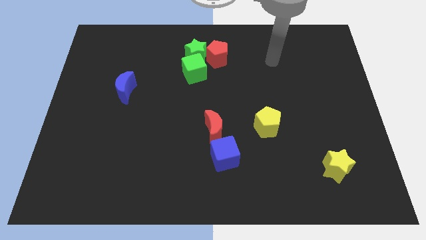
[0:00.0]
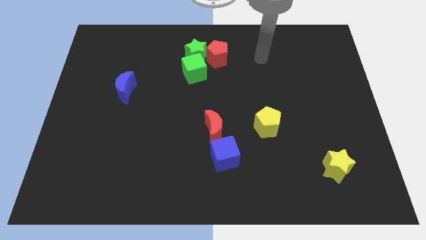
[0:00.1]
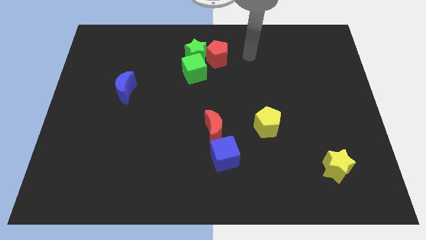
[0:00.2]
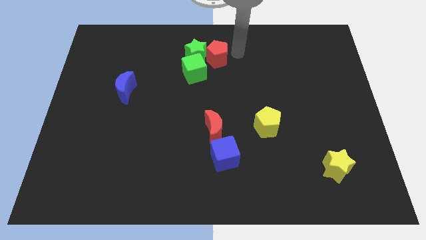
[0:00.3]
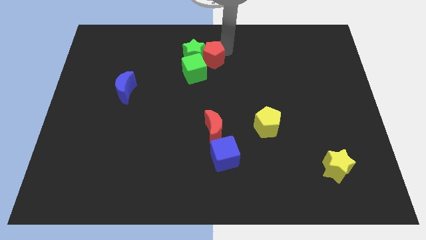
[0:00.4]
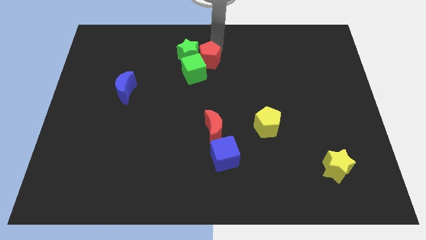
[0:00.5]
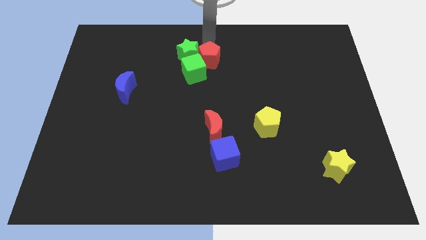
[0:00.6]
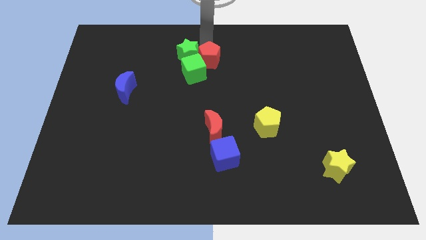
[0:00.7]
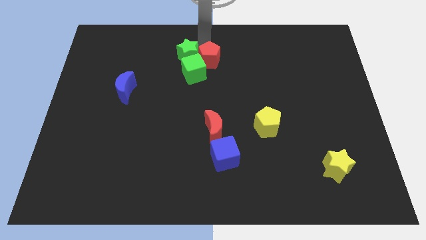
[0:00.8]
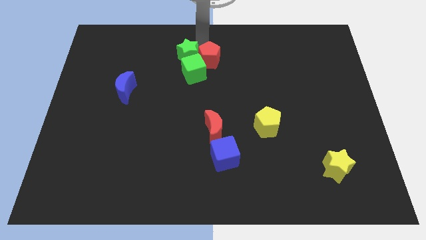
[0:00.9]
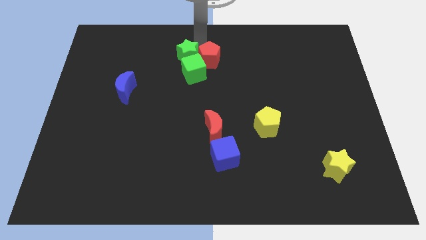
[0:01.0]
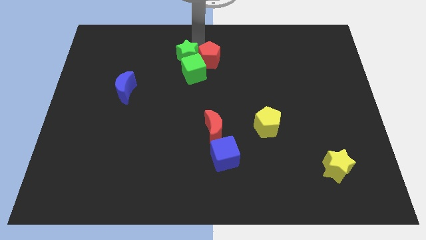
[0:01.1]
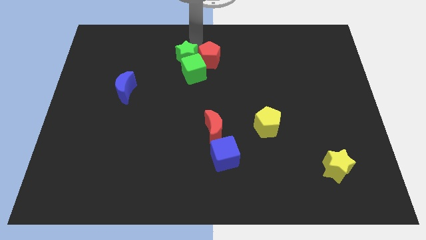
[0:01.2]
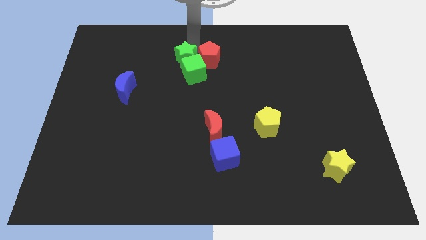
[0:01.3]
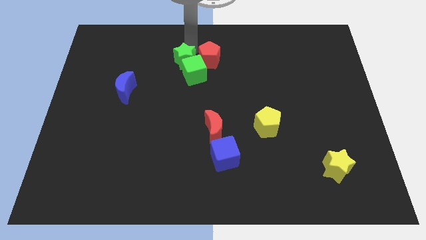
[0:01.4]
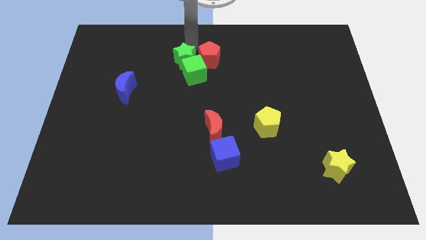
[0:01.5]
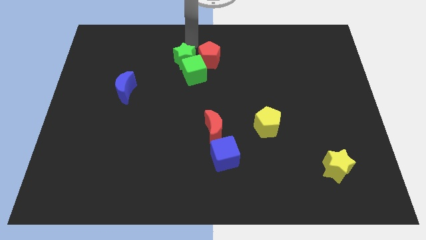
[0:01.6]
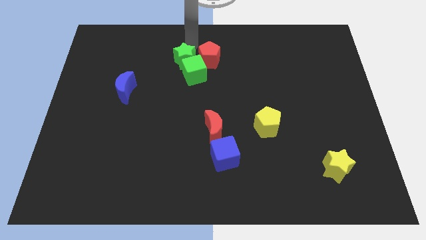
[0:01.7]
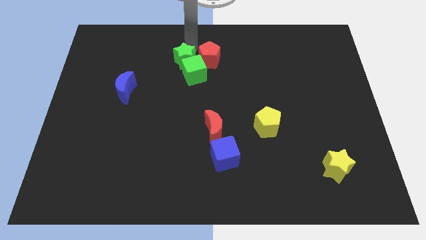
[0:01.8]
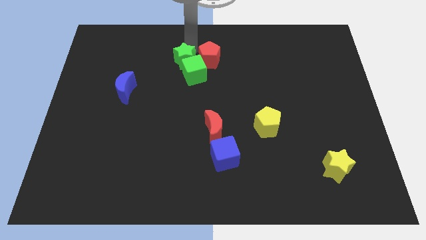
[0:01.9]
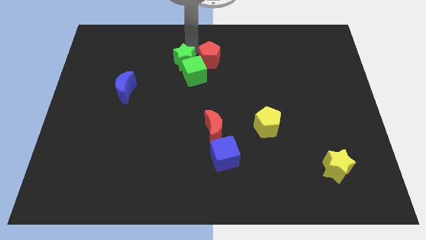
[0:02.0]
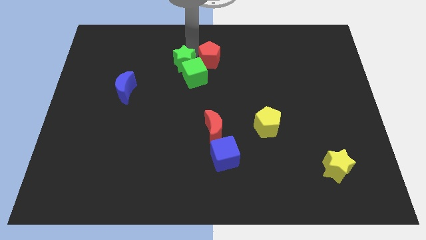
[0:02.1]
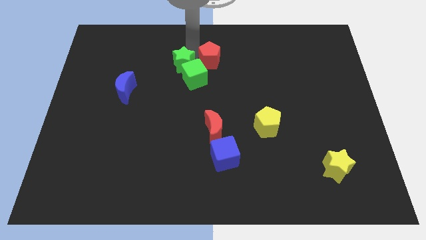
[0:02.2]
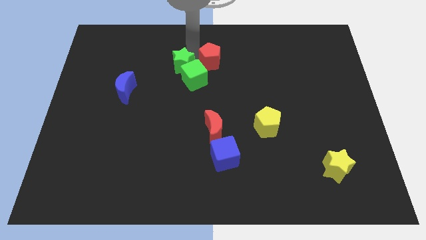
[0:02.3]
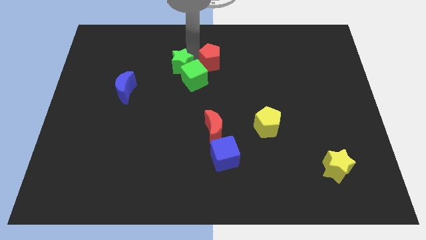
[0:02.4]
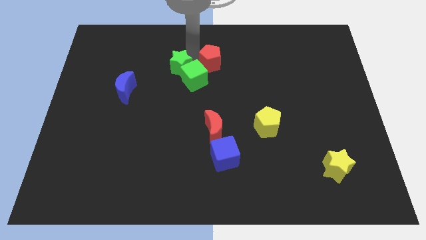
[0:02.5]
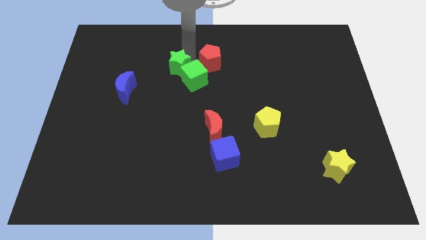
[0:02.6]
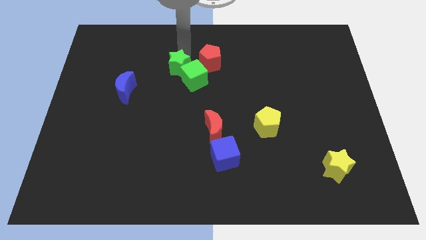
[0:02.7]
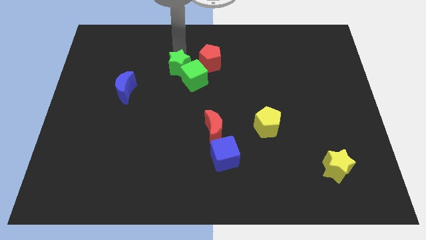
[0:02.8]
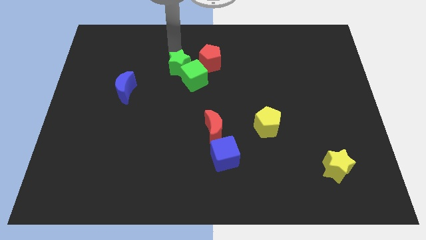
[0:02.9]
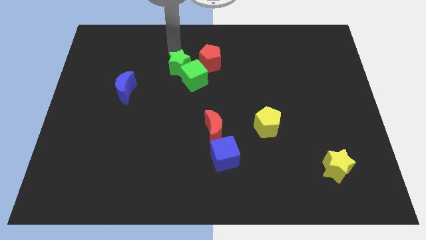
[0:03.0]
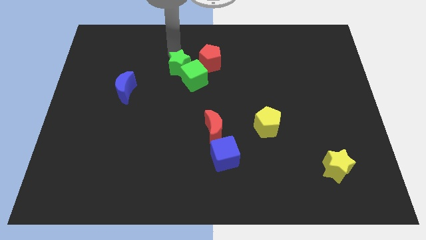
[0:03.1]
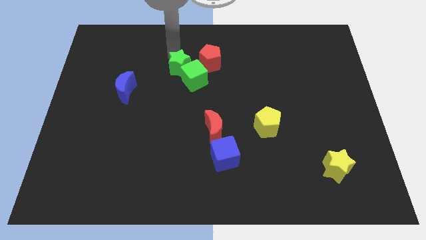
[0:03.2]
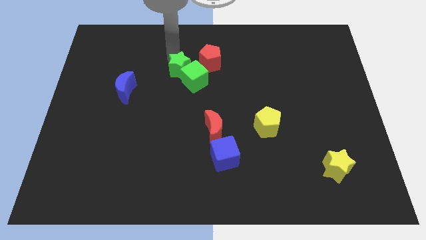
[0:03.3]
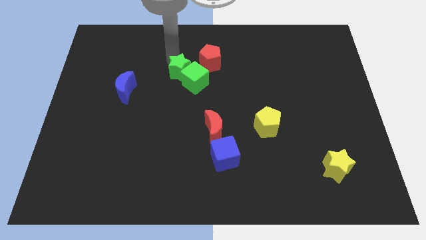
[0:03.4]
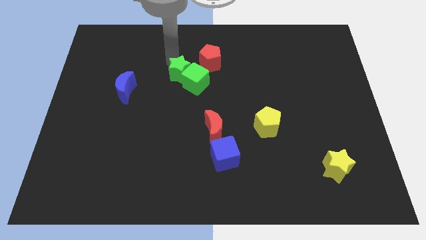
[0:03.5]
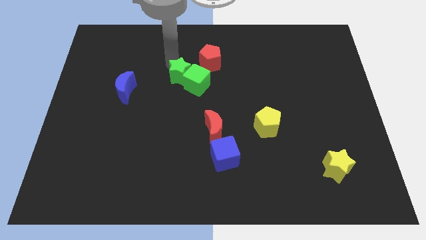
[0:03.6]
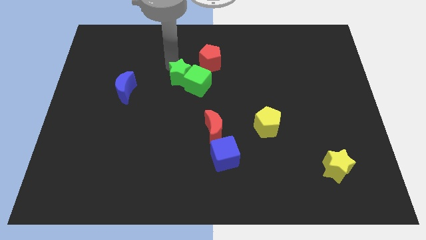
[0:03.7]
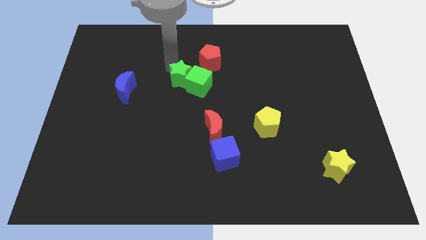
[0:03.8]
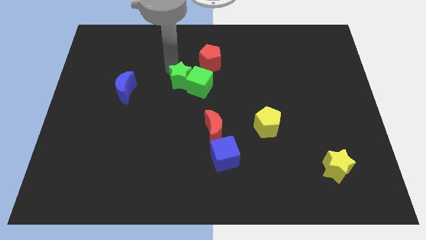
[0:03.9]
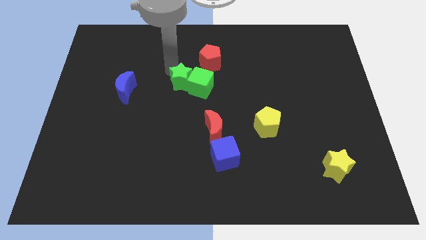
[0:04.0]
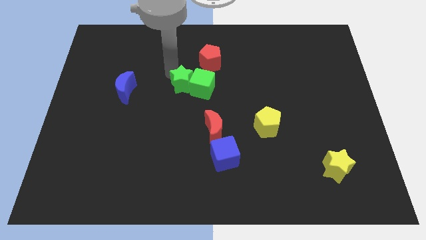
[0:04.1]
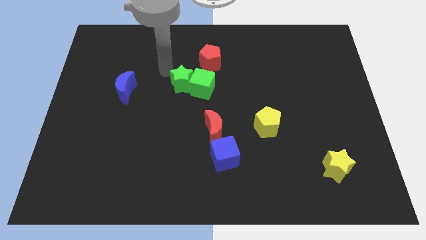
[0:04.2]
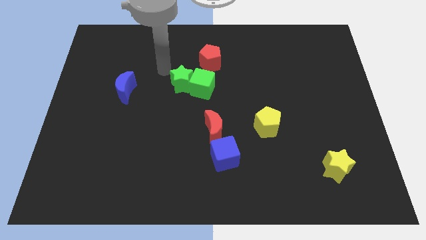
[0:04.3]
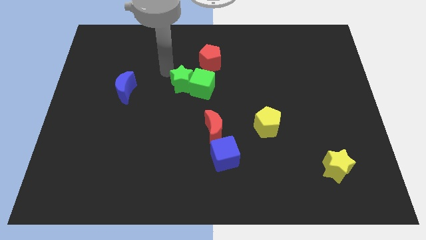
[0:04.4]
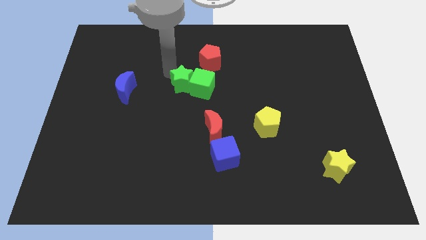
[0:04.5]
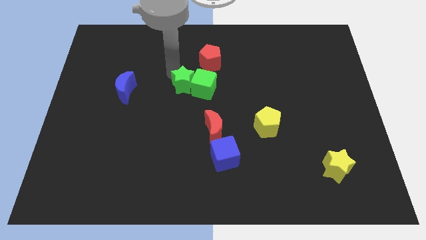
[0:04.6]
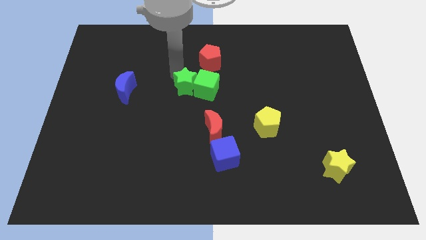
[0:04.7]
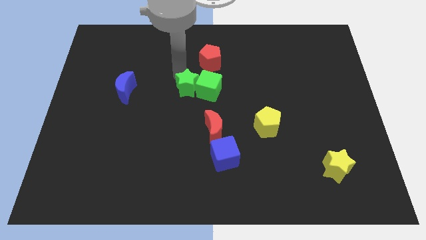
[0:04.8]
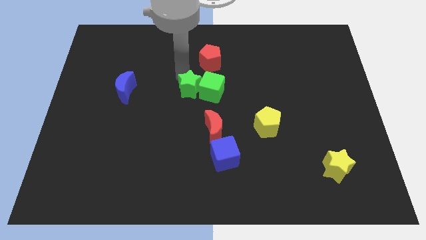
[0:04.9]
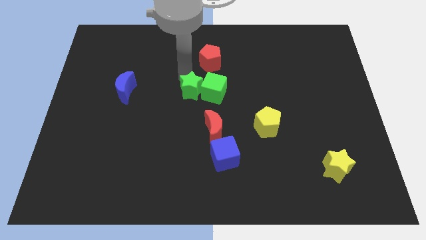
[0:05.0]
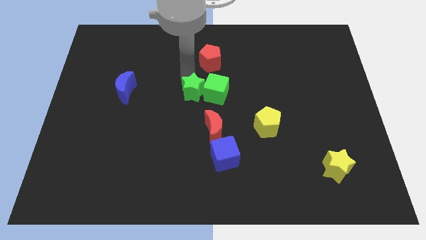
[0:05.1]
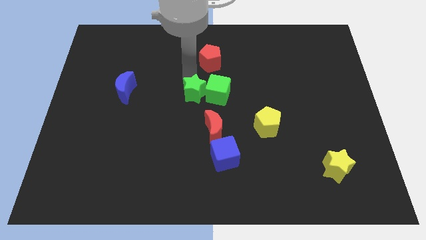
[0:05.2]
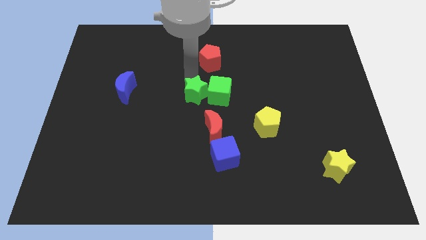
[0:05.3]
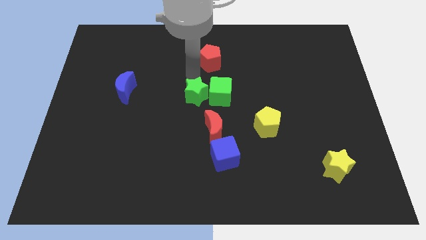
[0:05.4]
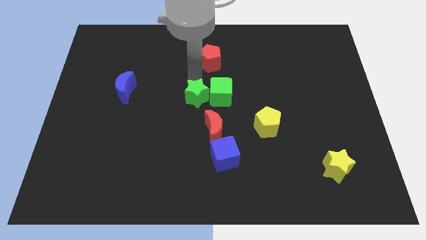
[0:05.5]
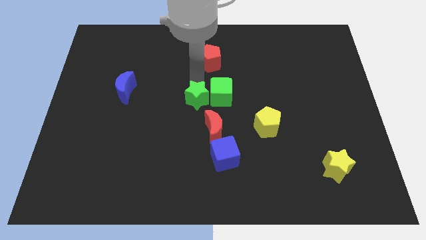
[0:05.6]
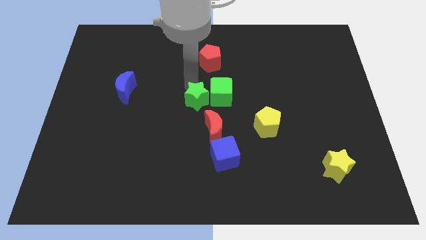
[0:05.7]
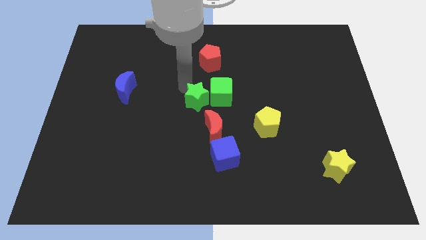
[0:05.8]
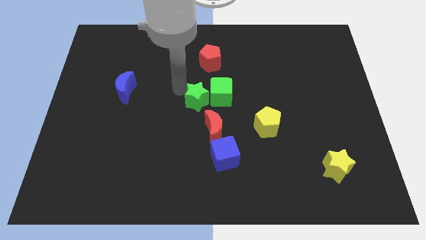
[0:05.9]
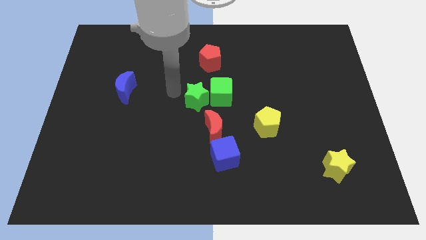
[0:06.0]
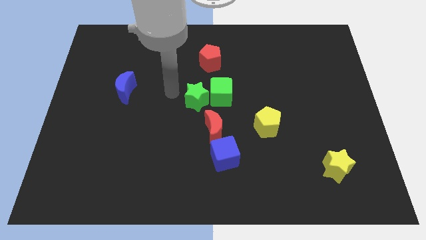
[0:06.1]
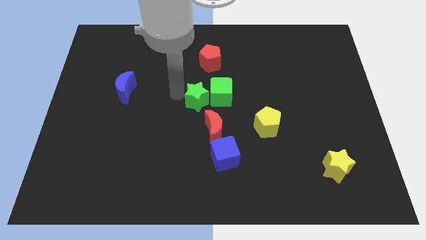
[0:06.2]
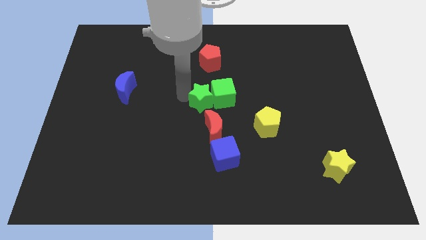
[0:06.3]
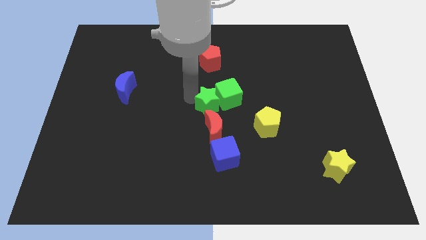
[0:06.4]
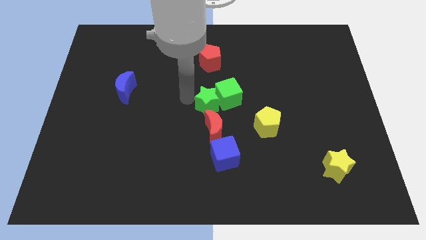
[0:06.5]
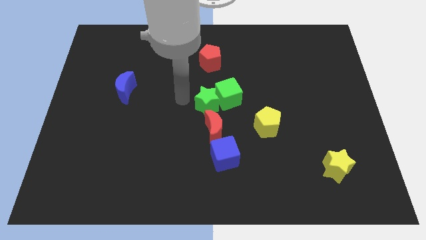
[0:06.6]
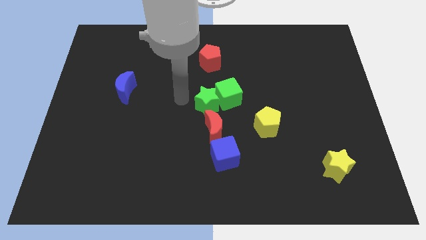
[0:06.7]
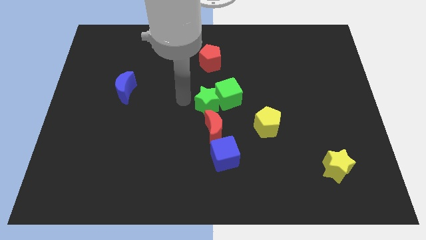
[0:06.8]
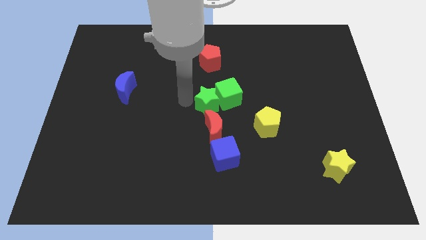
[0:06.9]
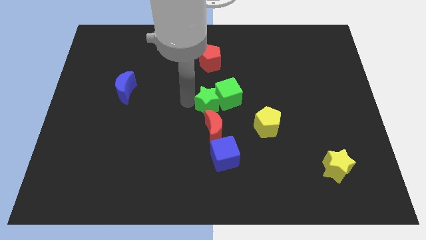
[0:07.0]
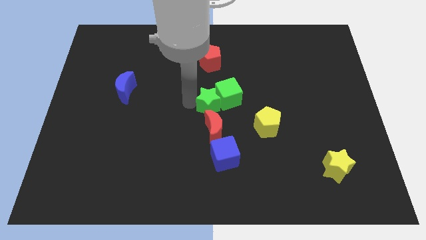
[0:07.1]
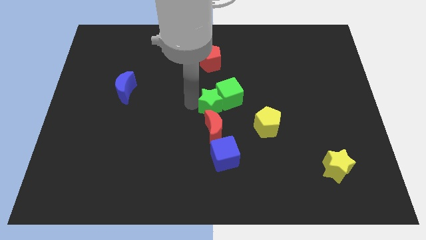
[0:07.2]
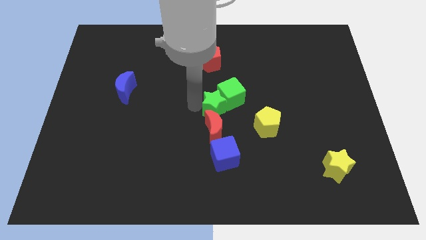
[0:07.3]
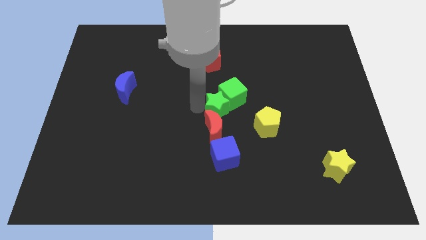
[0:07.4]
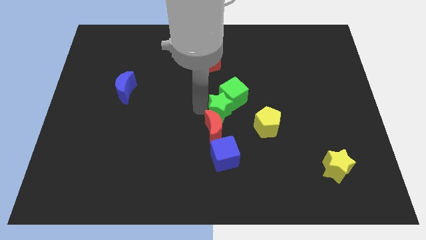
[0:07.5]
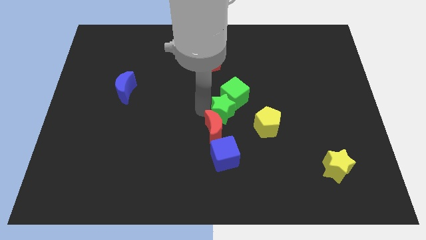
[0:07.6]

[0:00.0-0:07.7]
move the green star diagonally up and to the left of the yellow pentagon
